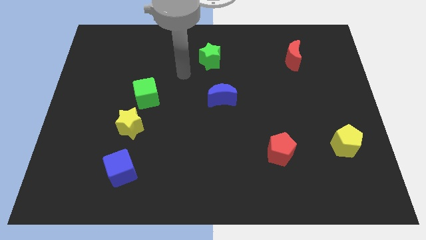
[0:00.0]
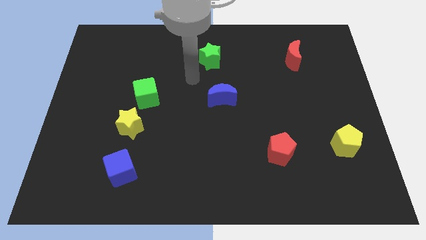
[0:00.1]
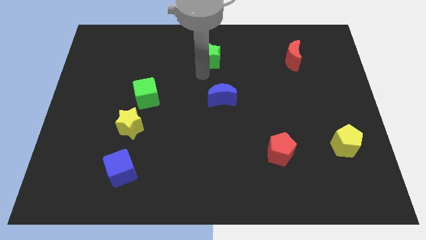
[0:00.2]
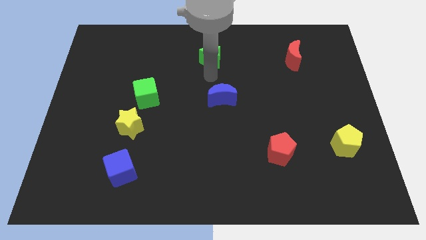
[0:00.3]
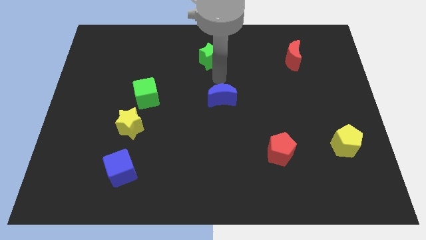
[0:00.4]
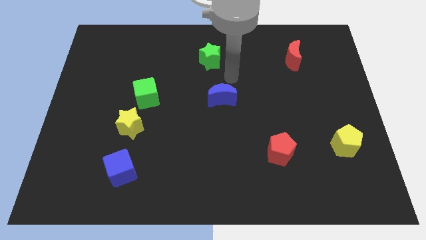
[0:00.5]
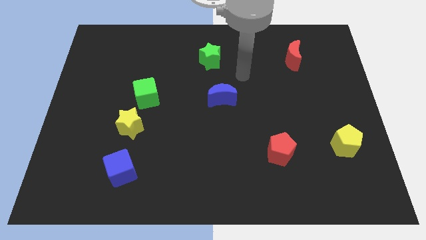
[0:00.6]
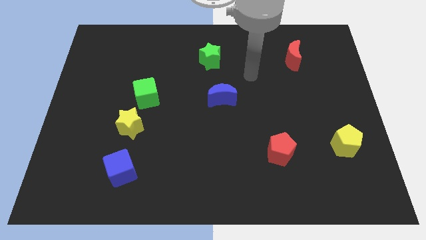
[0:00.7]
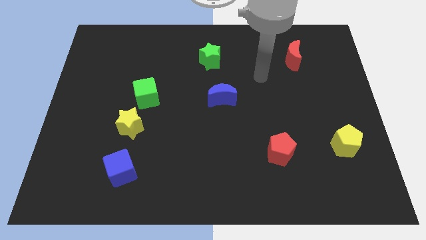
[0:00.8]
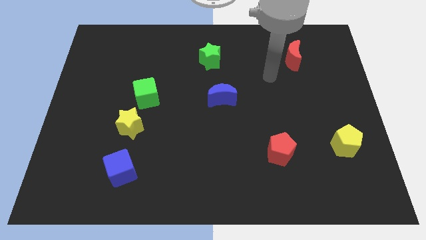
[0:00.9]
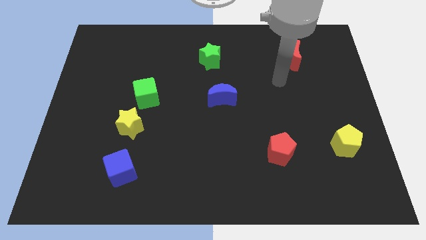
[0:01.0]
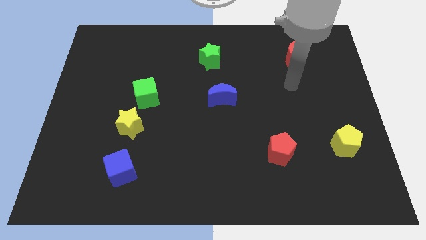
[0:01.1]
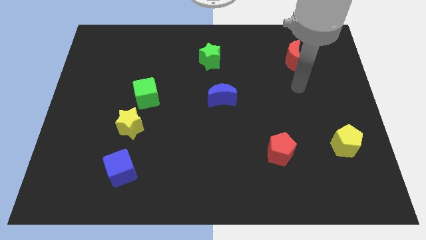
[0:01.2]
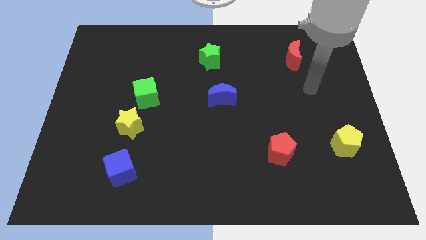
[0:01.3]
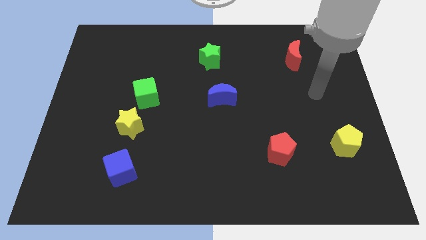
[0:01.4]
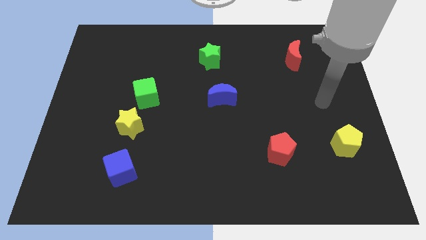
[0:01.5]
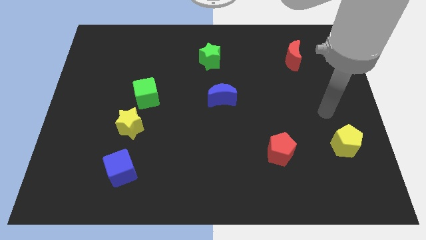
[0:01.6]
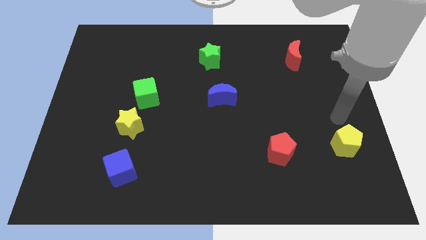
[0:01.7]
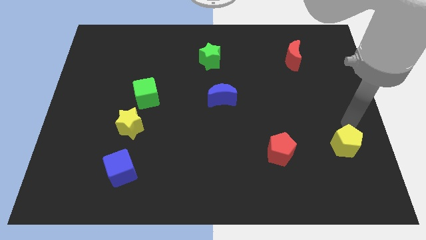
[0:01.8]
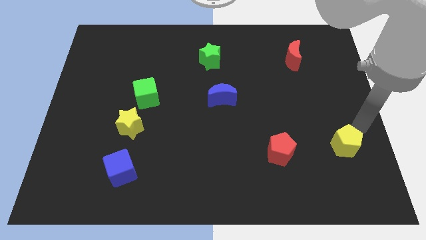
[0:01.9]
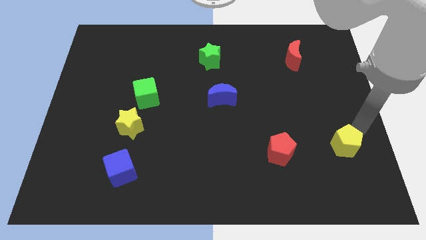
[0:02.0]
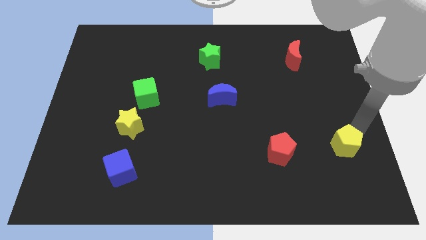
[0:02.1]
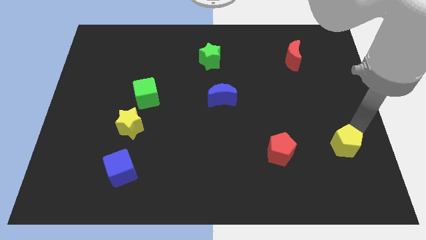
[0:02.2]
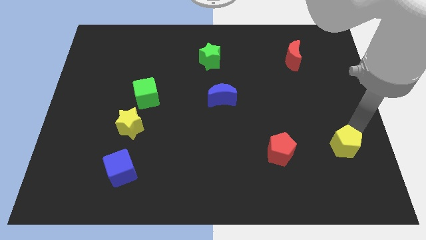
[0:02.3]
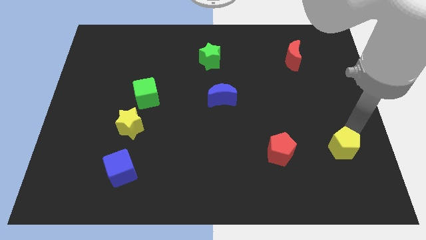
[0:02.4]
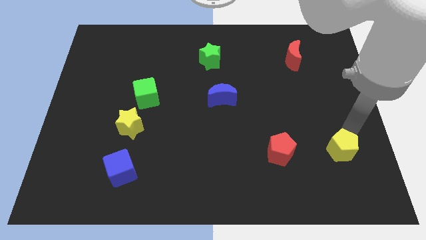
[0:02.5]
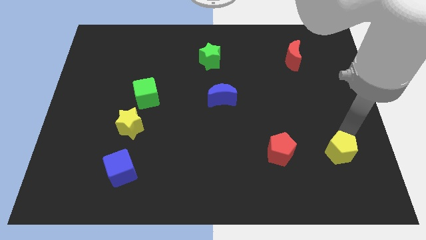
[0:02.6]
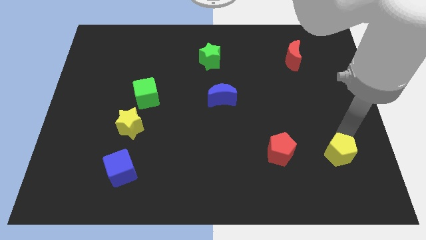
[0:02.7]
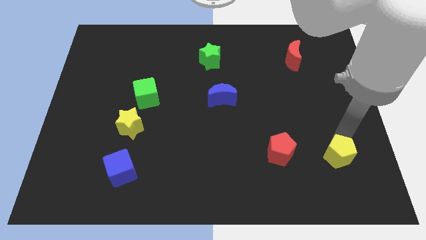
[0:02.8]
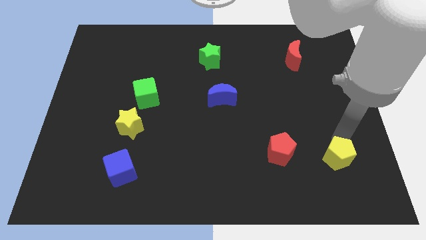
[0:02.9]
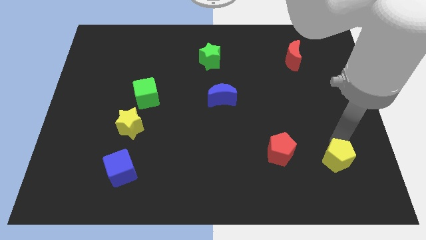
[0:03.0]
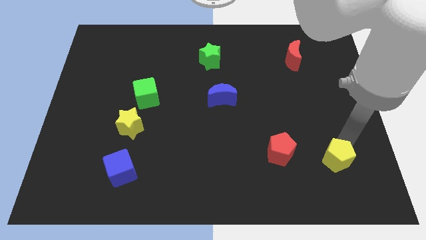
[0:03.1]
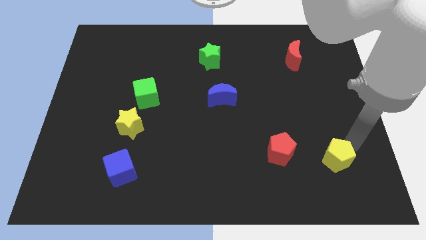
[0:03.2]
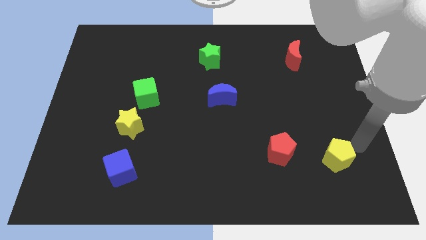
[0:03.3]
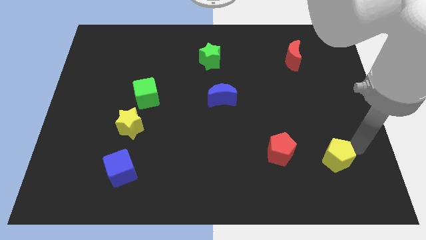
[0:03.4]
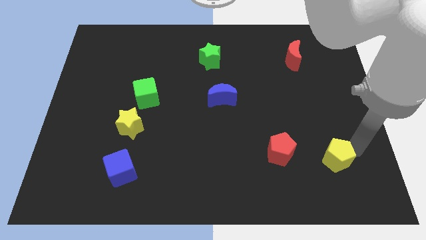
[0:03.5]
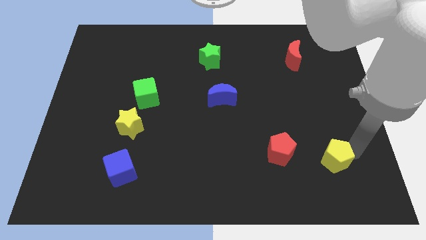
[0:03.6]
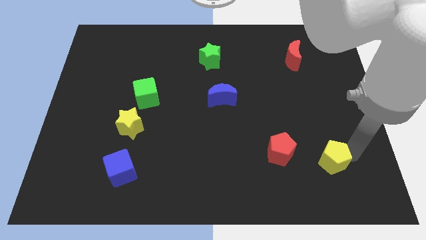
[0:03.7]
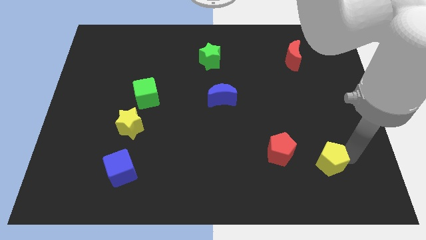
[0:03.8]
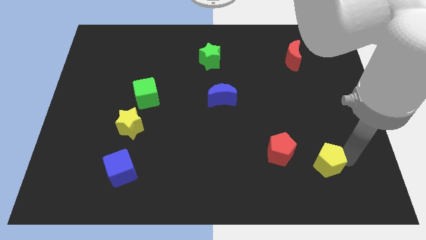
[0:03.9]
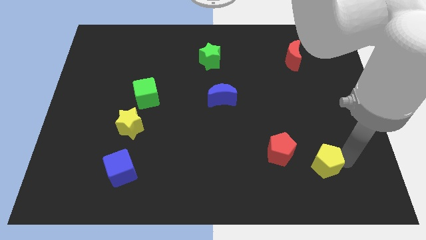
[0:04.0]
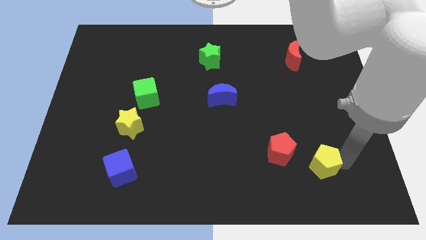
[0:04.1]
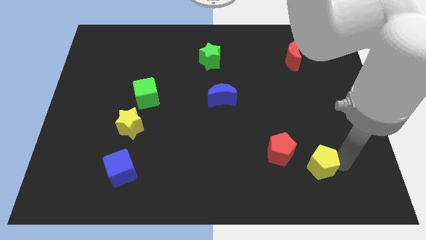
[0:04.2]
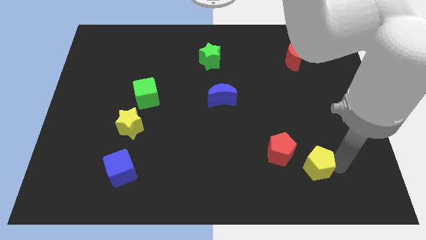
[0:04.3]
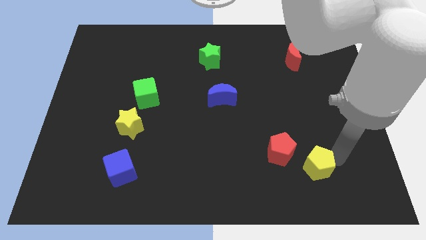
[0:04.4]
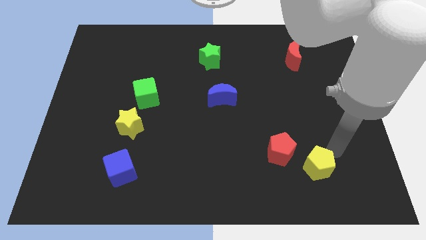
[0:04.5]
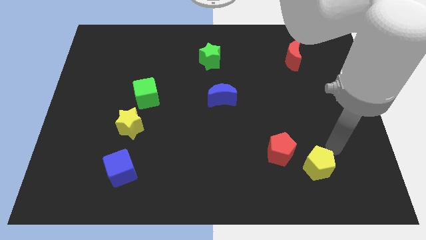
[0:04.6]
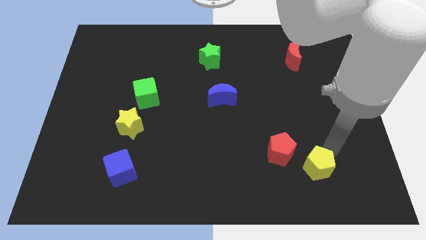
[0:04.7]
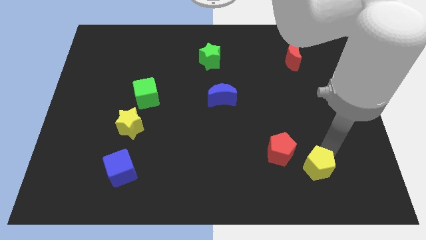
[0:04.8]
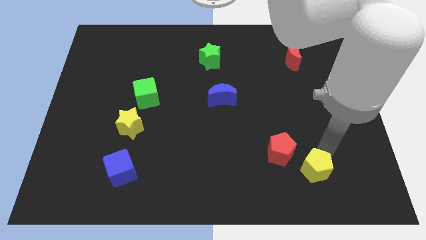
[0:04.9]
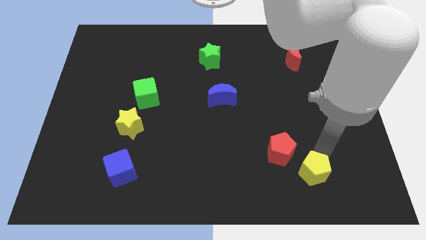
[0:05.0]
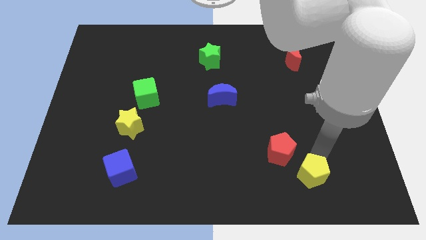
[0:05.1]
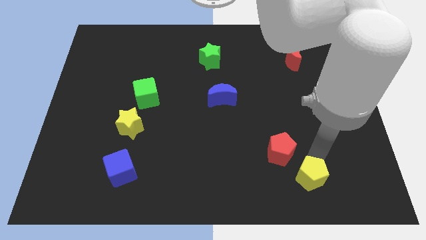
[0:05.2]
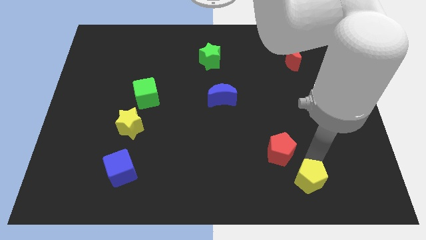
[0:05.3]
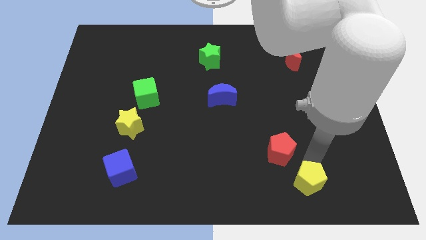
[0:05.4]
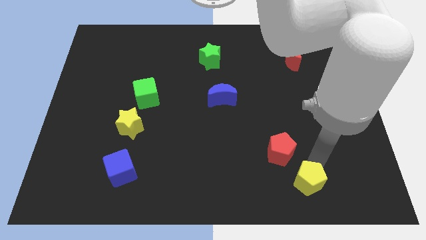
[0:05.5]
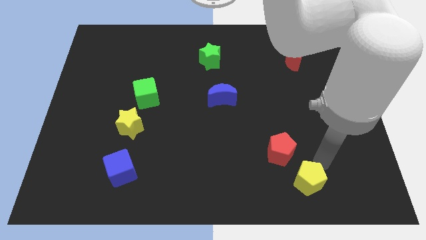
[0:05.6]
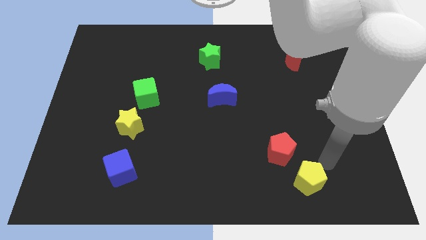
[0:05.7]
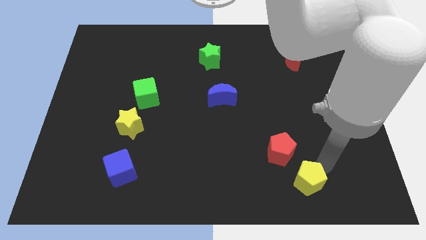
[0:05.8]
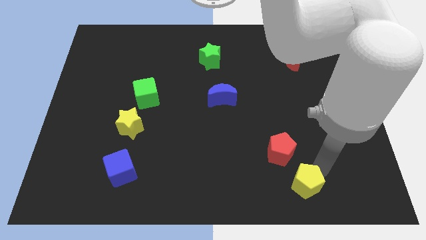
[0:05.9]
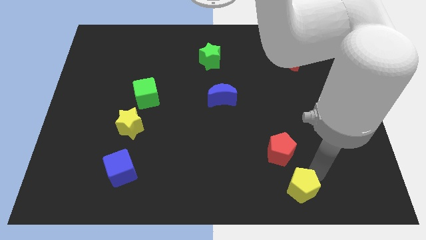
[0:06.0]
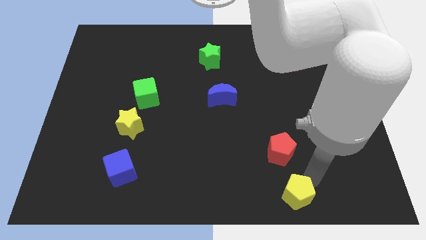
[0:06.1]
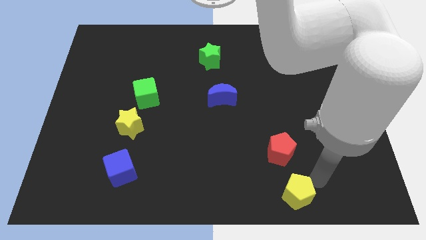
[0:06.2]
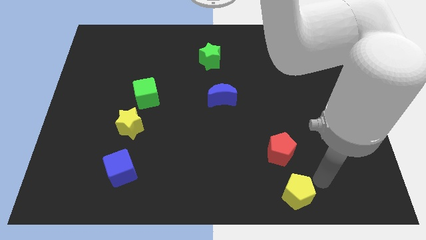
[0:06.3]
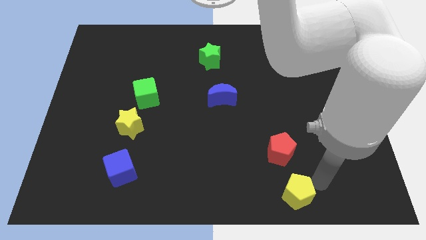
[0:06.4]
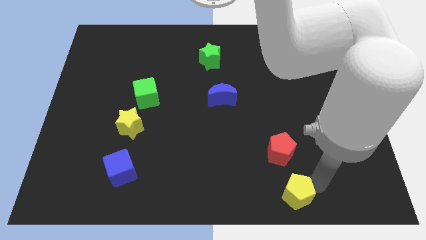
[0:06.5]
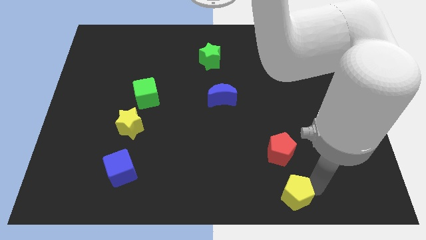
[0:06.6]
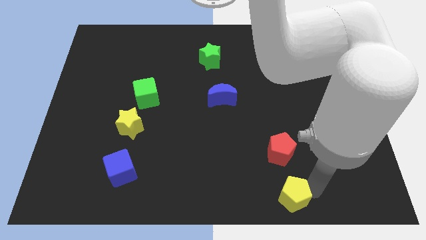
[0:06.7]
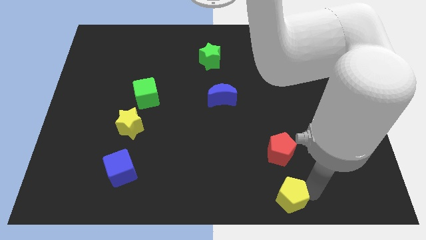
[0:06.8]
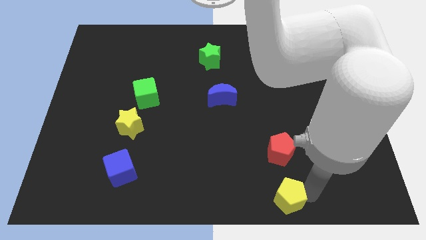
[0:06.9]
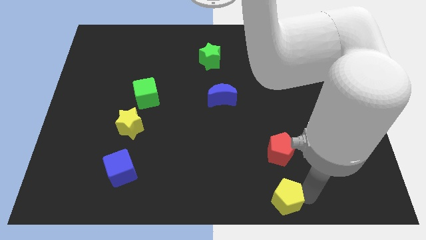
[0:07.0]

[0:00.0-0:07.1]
move the yellow pentagon to the bottom

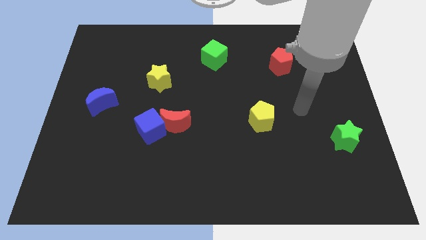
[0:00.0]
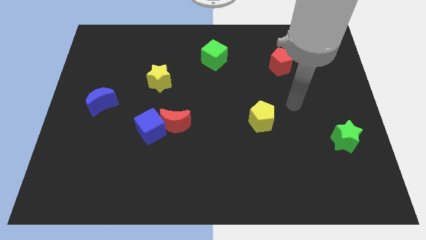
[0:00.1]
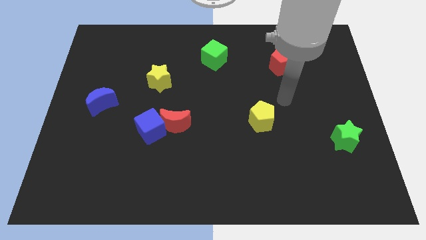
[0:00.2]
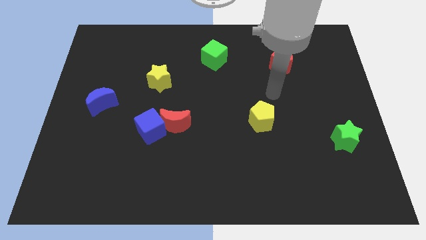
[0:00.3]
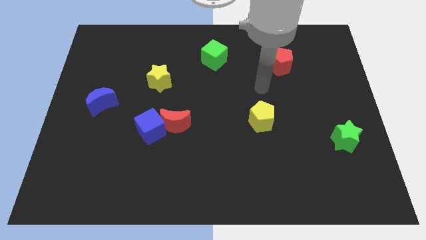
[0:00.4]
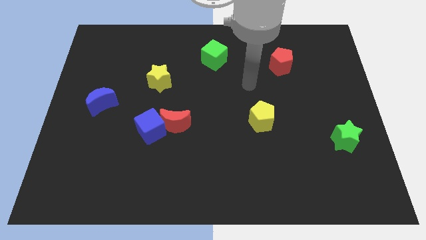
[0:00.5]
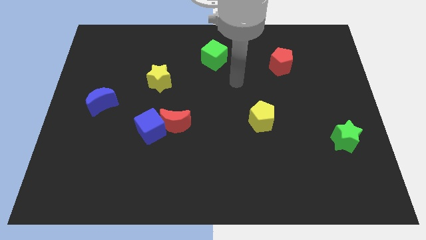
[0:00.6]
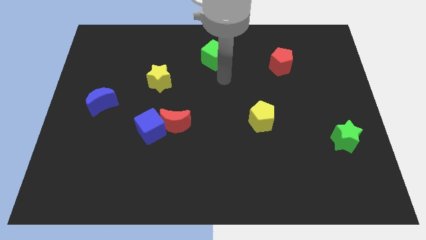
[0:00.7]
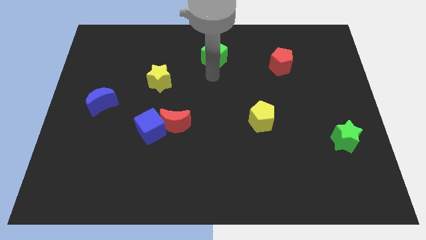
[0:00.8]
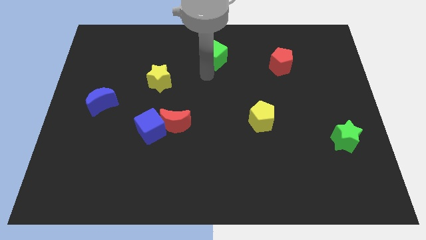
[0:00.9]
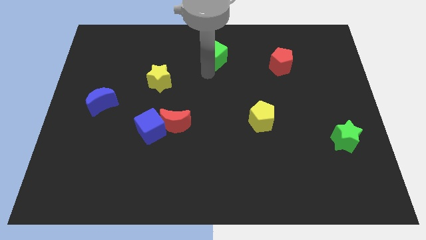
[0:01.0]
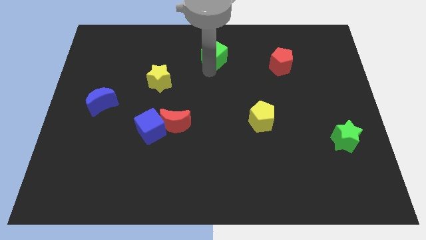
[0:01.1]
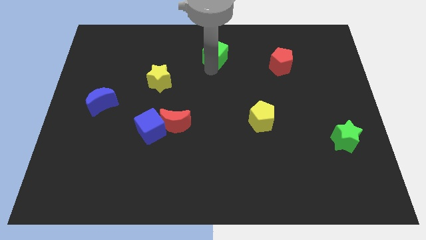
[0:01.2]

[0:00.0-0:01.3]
put the green cube to the top side
